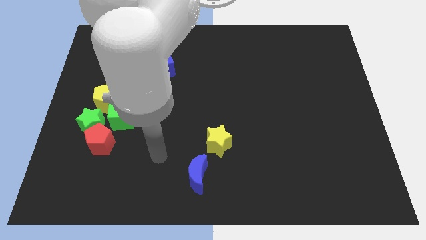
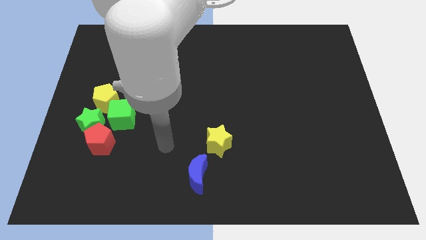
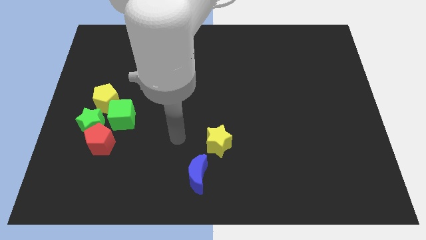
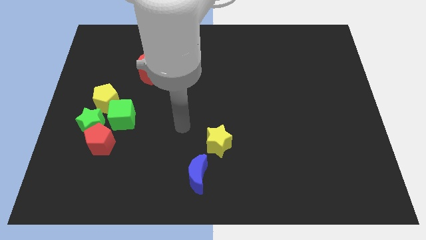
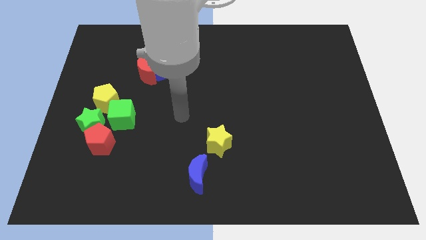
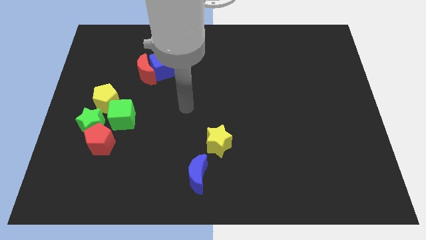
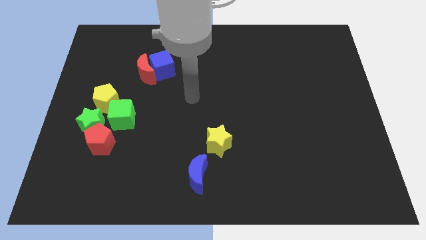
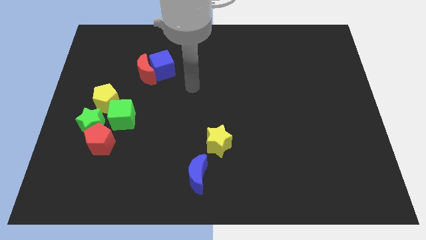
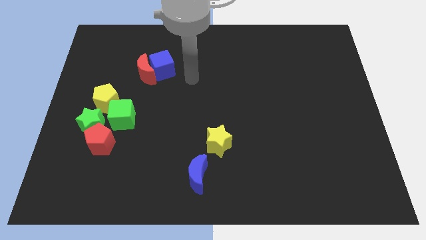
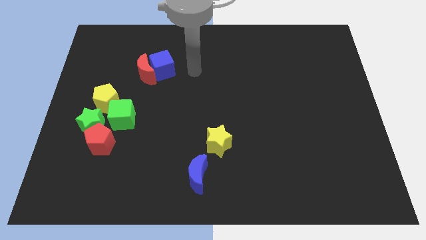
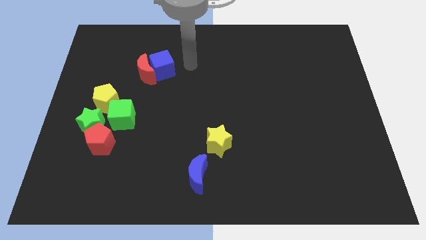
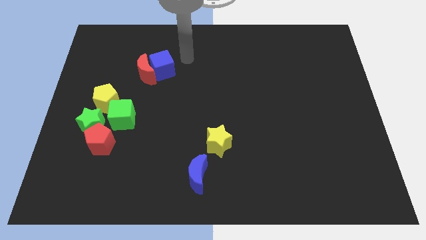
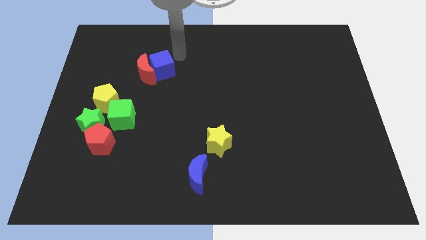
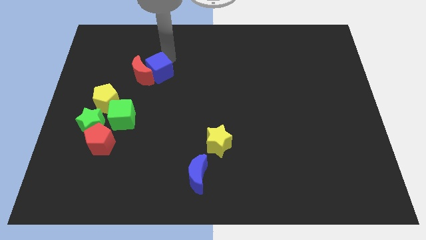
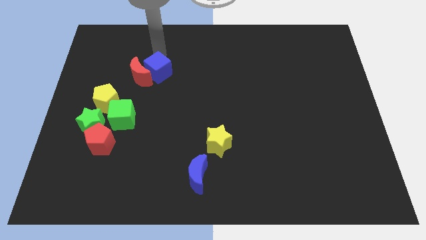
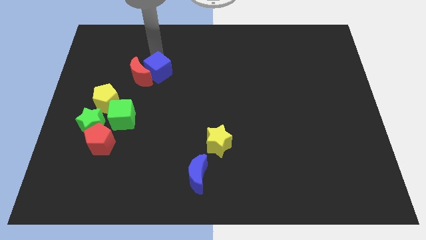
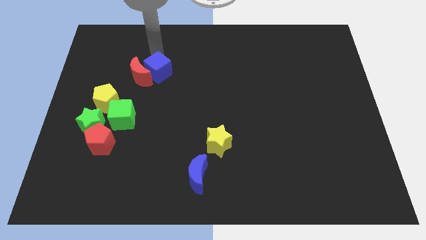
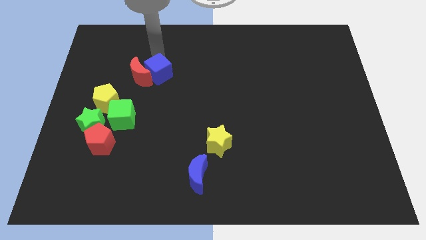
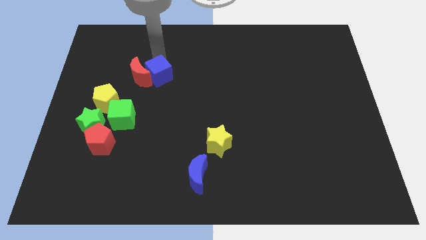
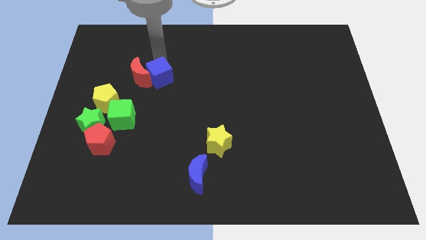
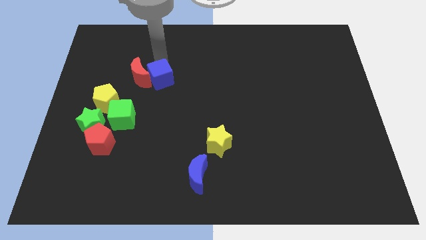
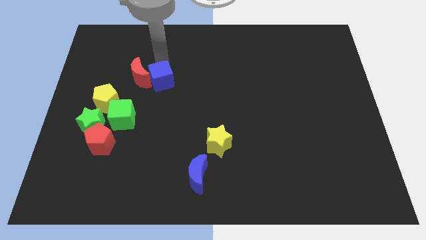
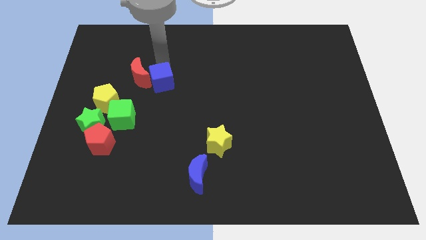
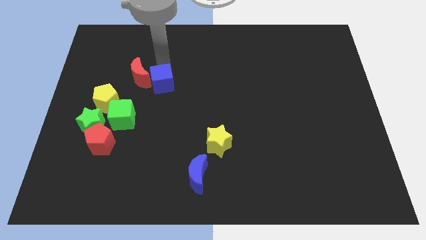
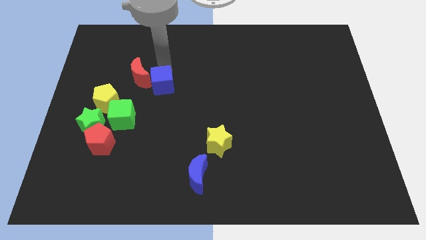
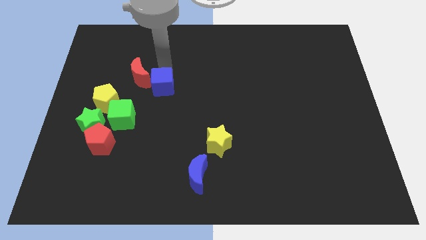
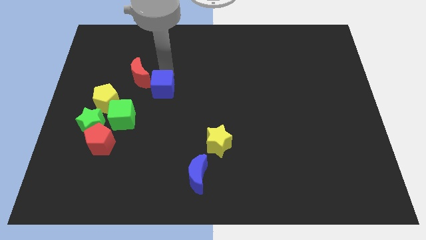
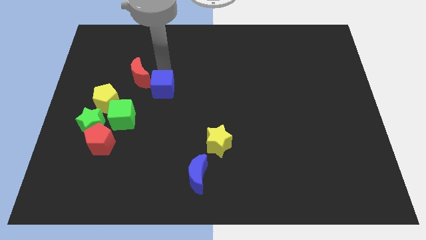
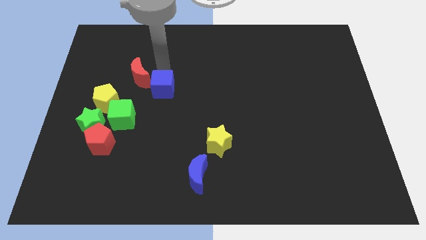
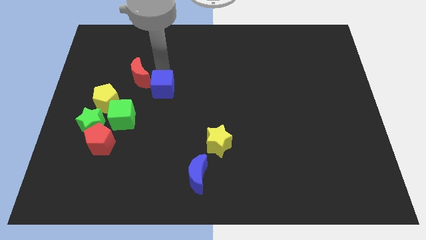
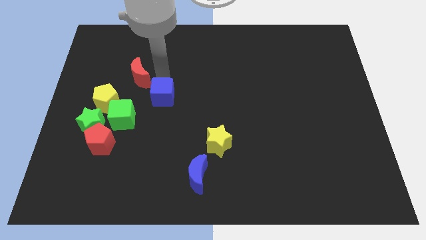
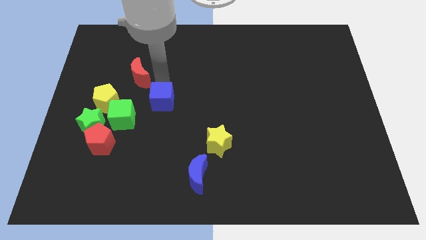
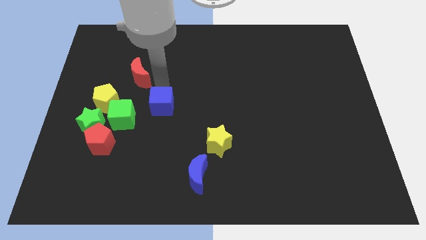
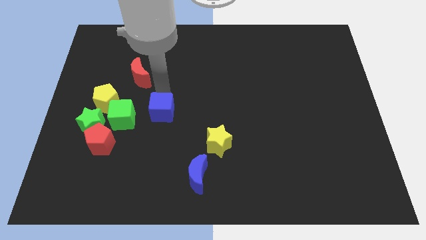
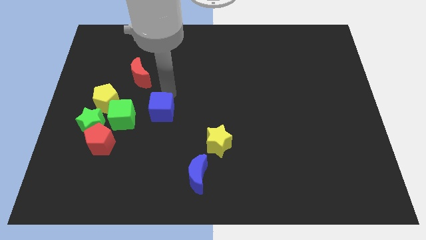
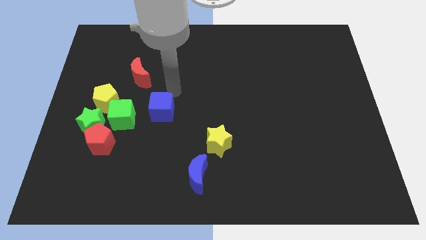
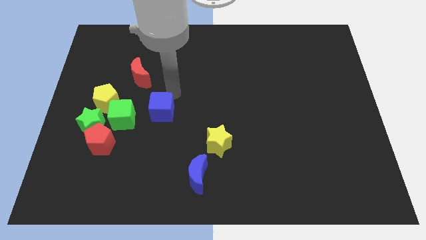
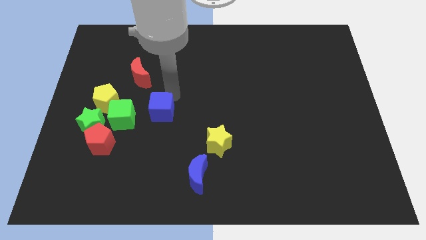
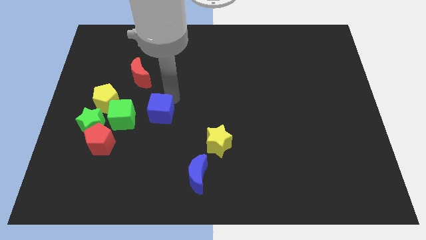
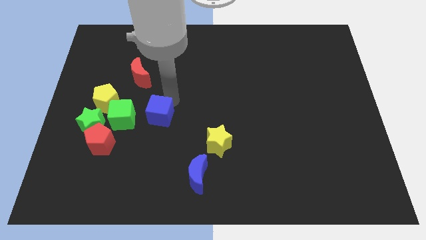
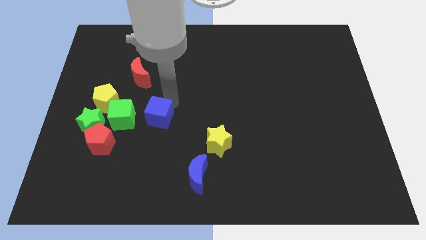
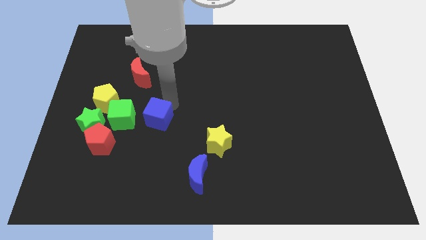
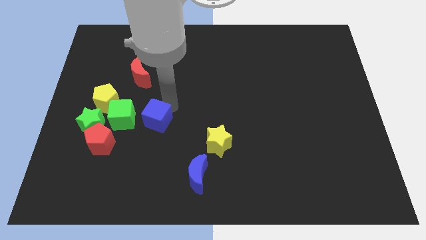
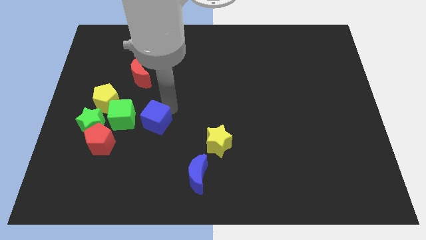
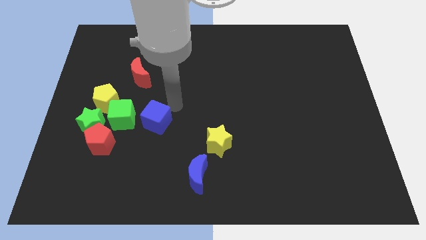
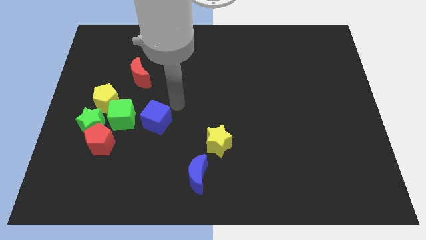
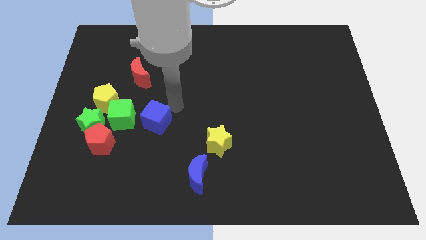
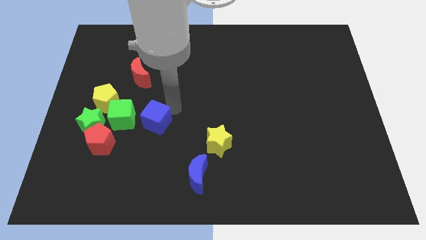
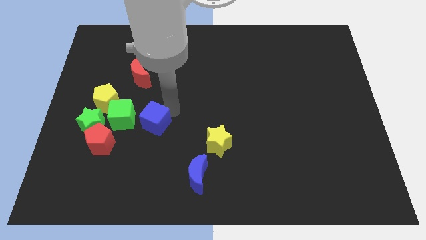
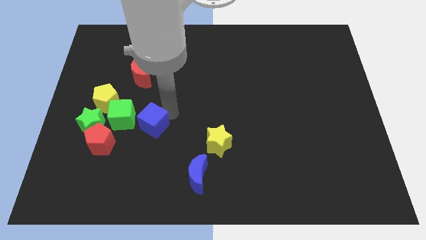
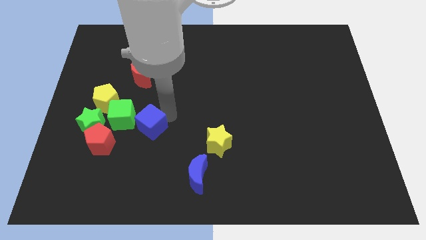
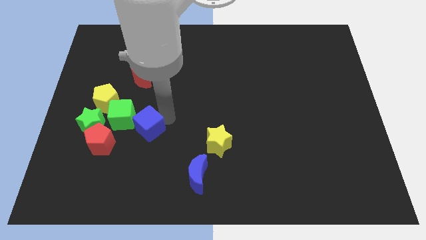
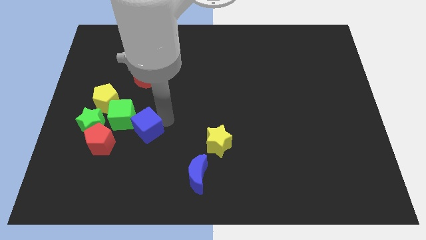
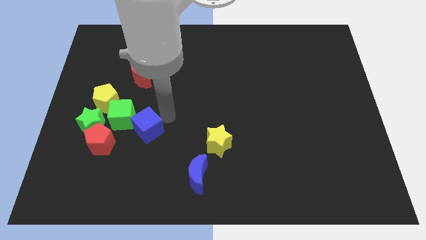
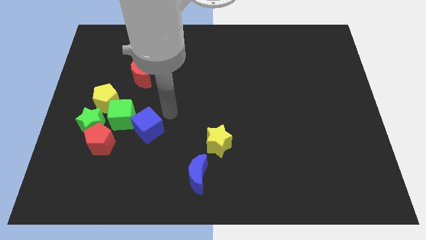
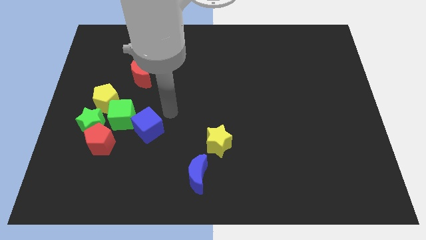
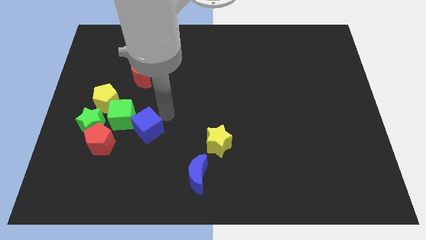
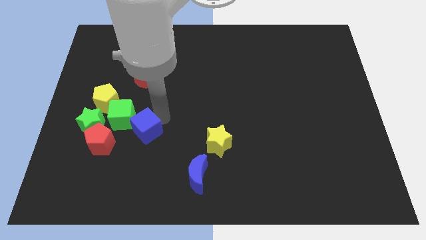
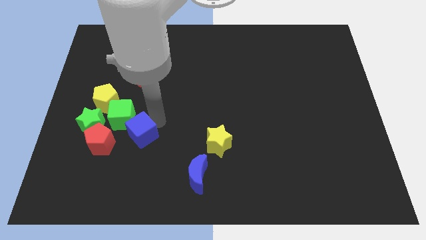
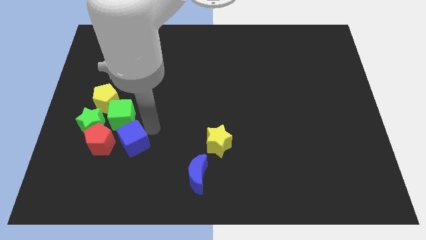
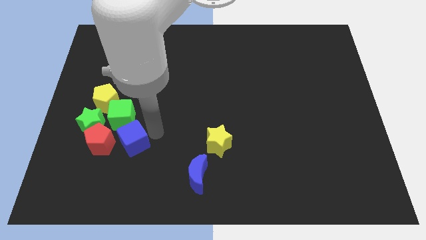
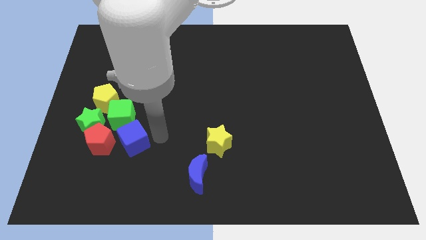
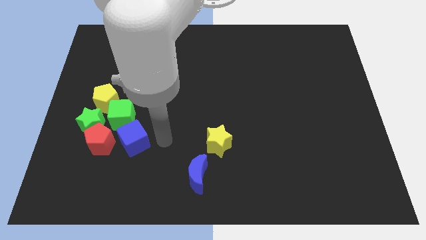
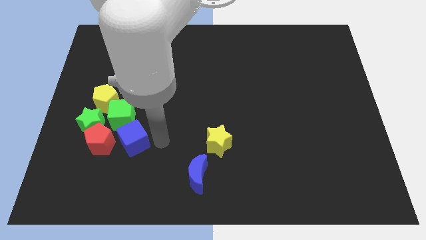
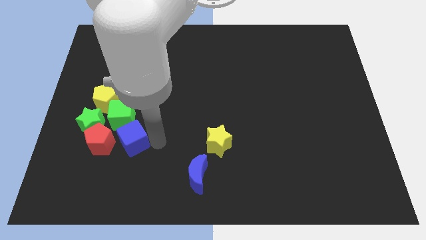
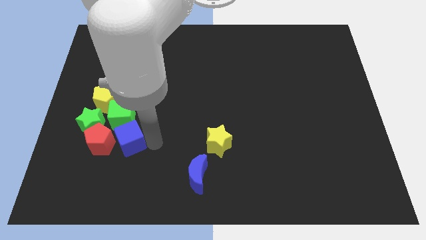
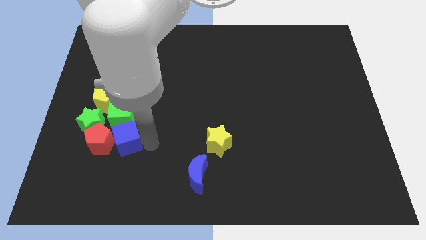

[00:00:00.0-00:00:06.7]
push the blue cube to the red pentagon

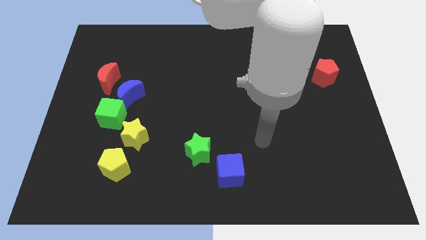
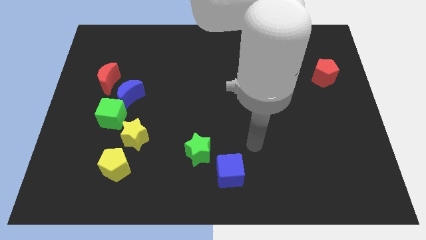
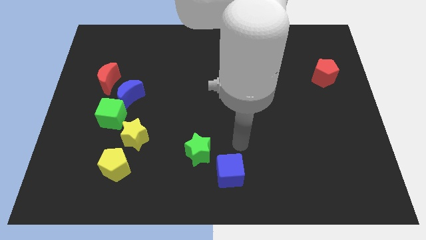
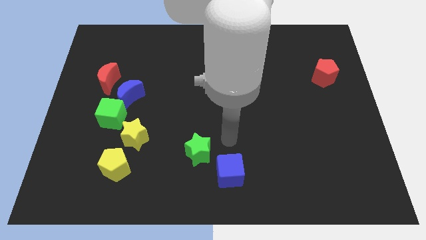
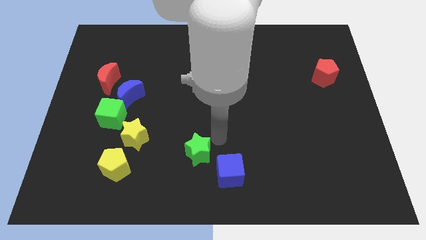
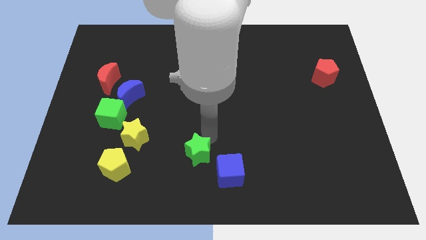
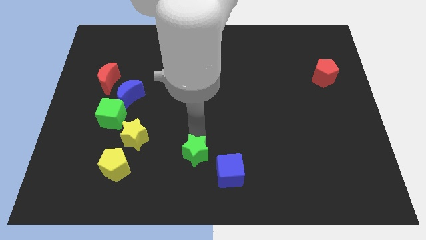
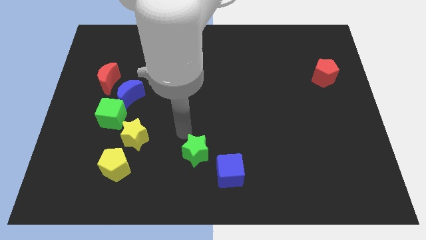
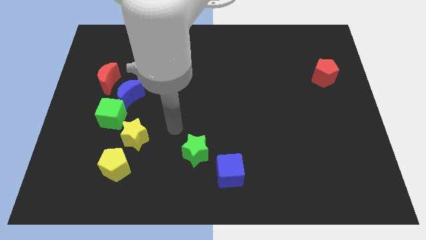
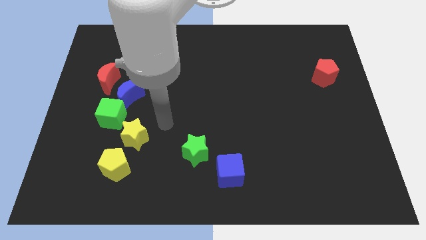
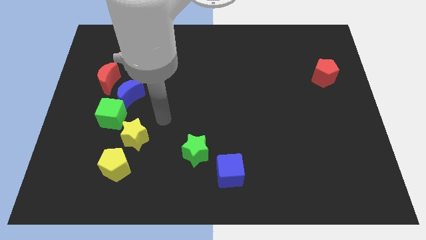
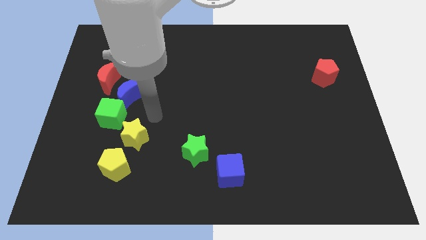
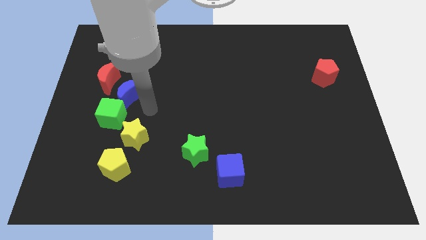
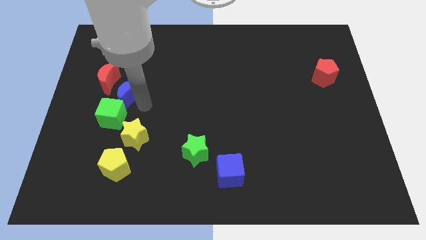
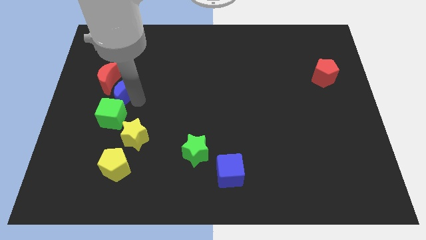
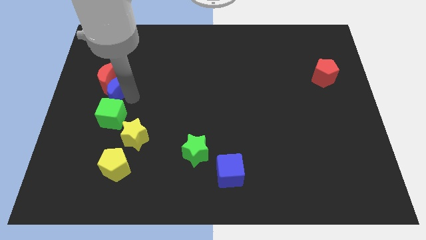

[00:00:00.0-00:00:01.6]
put the blue moon next to the red moon
